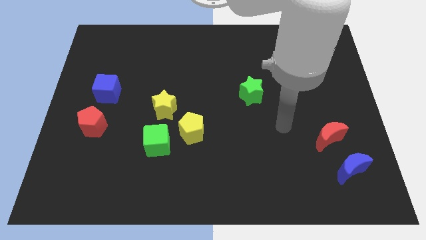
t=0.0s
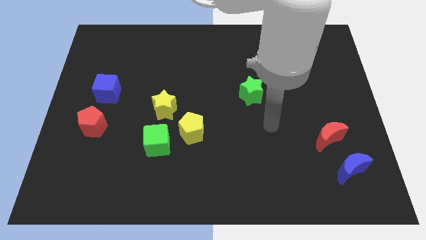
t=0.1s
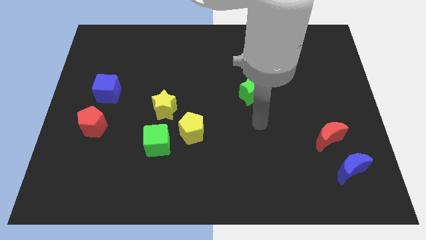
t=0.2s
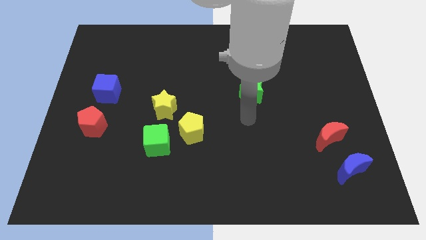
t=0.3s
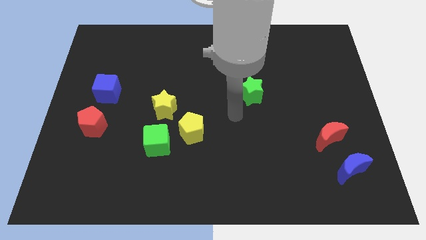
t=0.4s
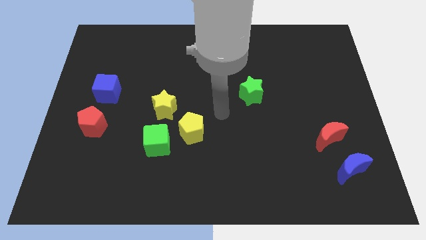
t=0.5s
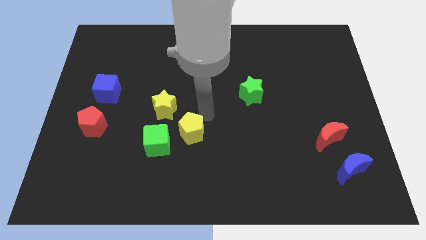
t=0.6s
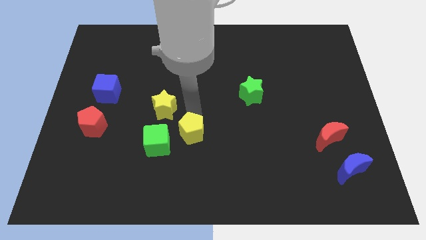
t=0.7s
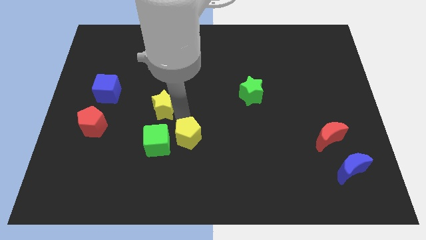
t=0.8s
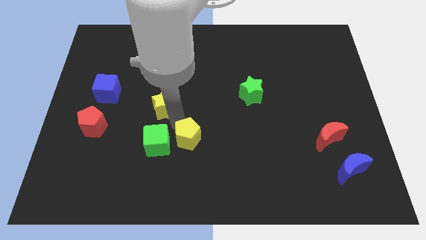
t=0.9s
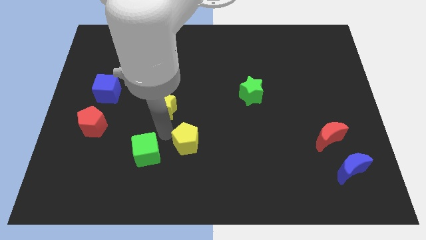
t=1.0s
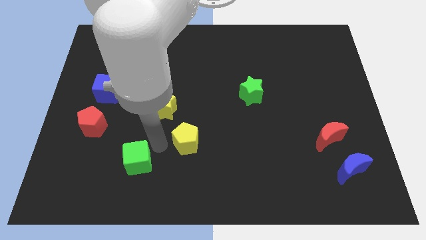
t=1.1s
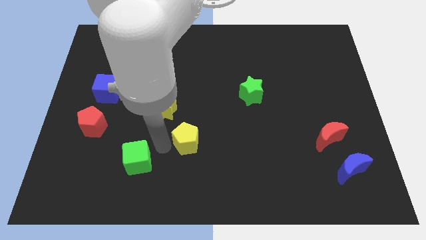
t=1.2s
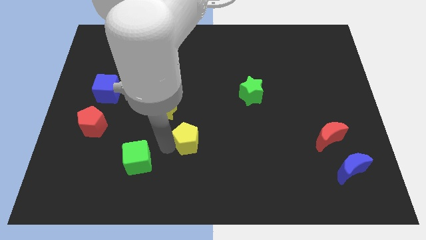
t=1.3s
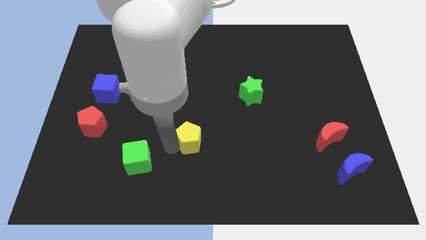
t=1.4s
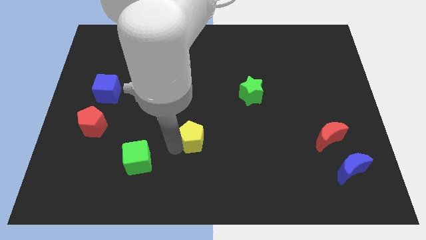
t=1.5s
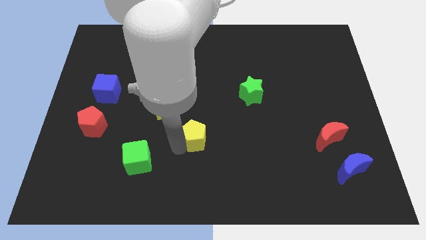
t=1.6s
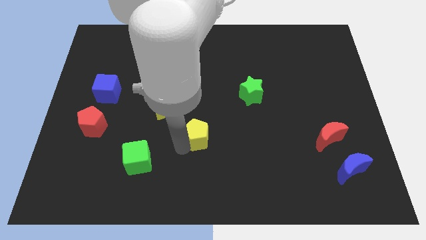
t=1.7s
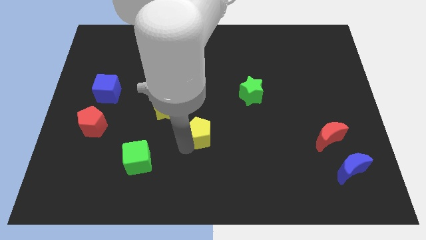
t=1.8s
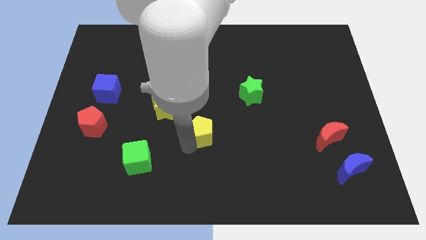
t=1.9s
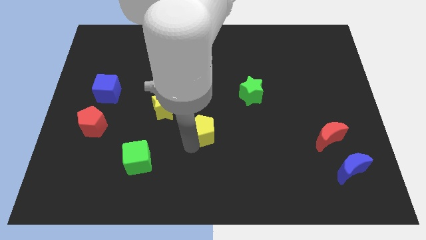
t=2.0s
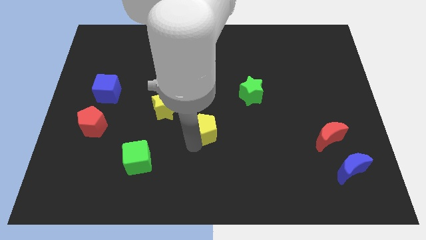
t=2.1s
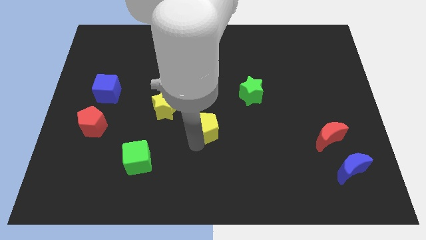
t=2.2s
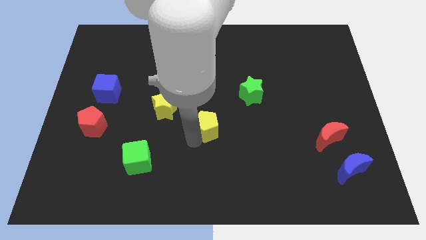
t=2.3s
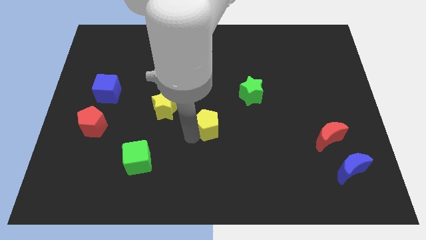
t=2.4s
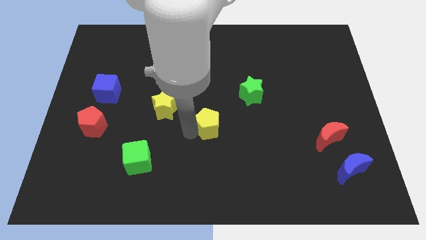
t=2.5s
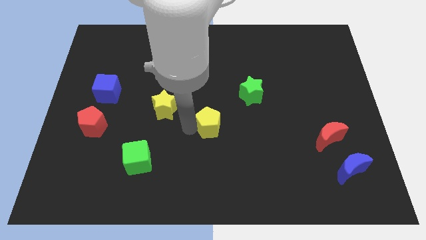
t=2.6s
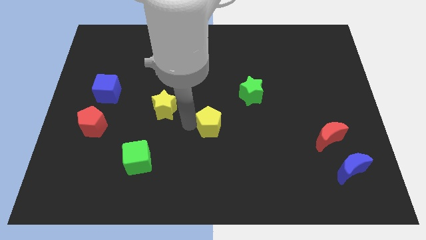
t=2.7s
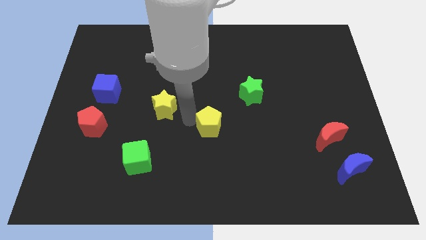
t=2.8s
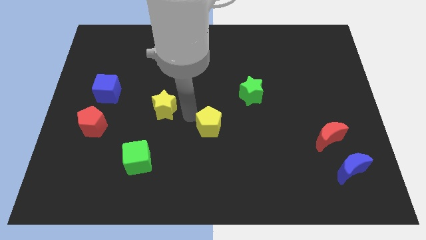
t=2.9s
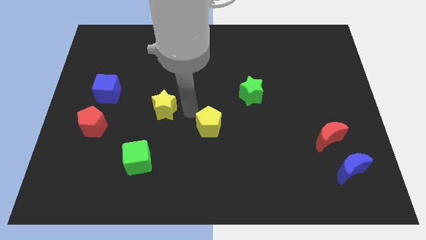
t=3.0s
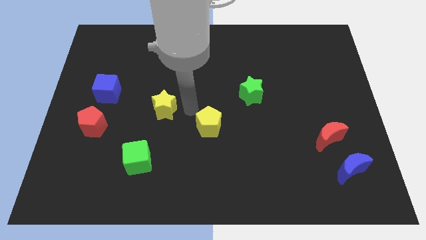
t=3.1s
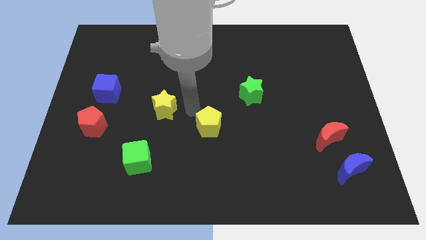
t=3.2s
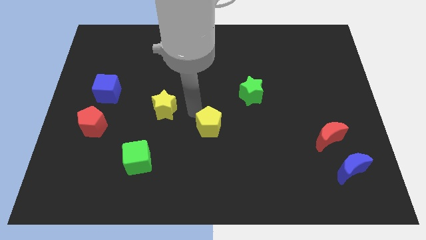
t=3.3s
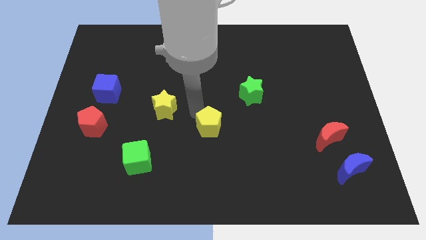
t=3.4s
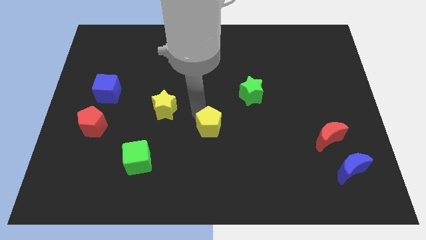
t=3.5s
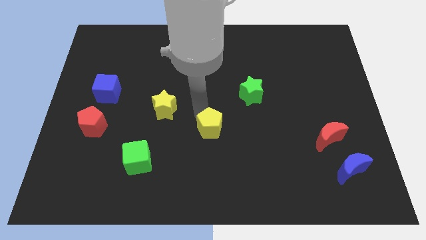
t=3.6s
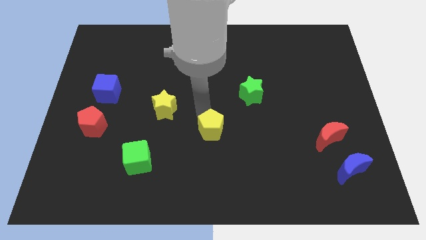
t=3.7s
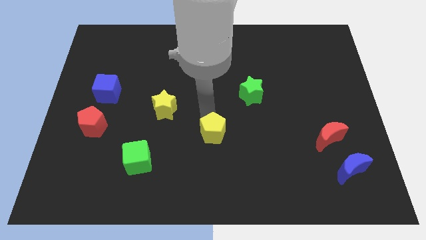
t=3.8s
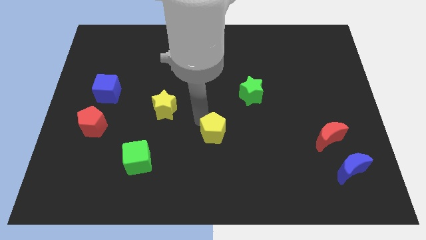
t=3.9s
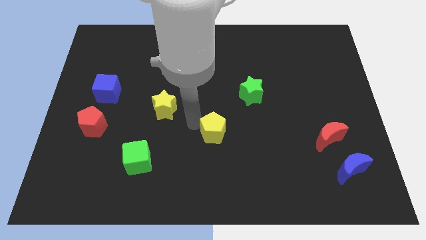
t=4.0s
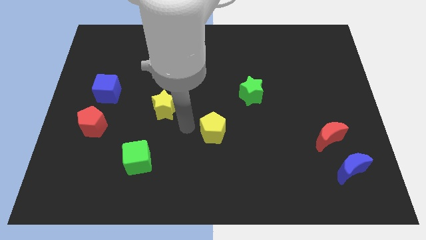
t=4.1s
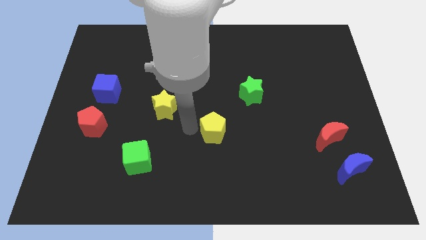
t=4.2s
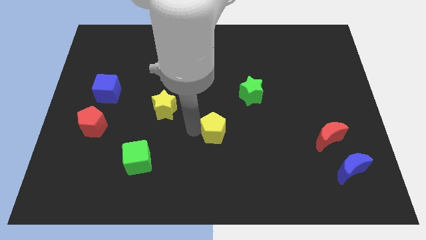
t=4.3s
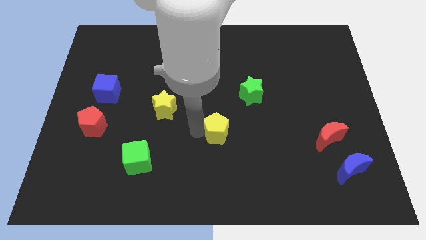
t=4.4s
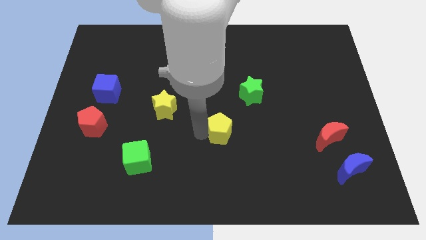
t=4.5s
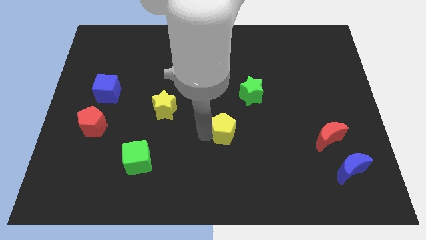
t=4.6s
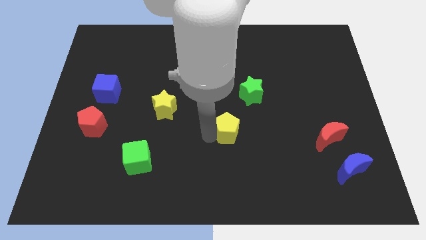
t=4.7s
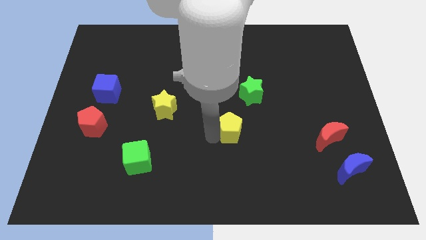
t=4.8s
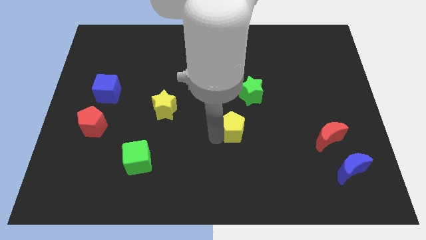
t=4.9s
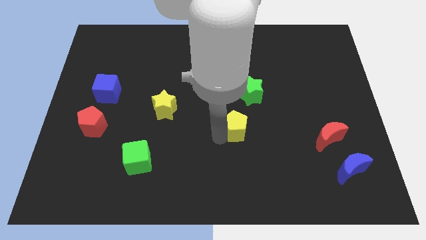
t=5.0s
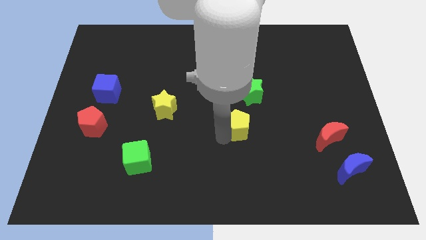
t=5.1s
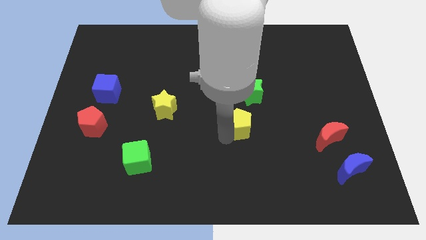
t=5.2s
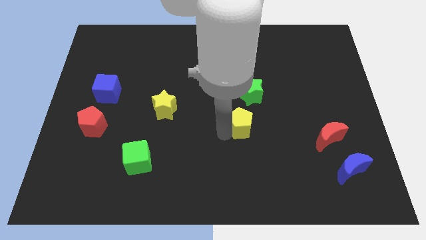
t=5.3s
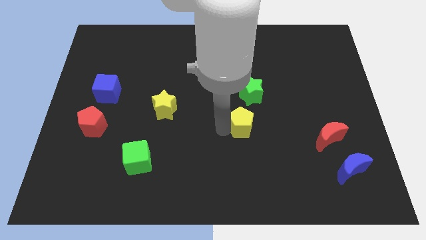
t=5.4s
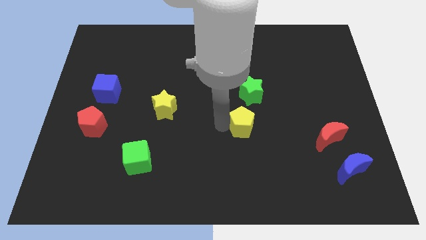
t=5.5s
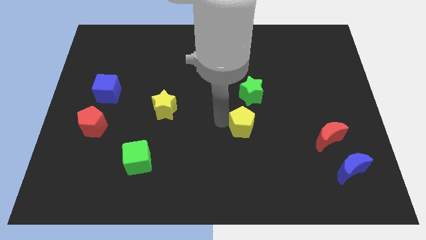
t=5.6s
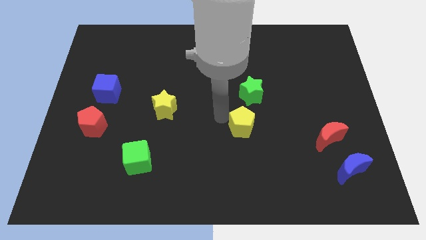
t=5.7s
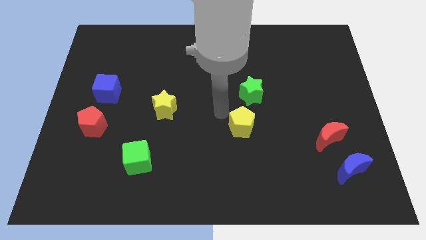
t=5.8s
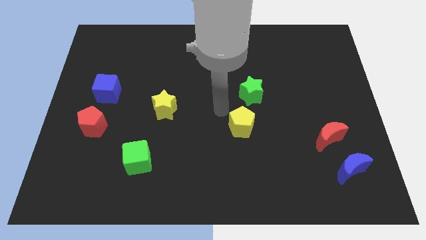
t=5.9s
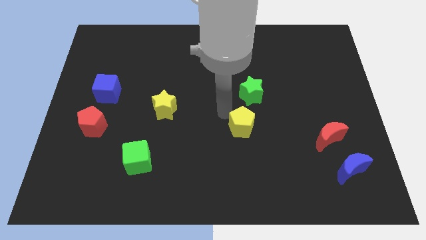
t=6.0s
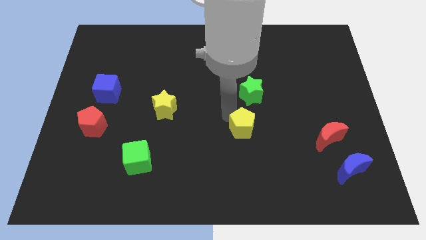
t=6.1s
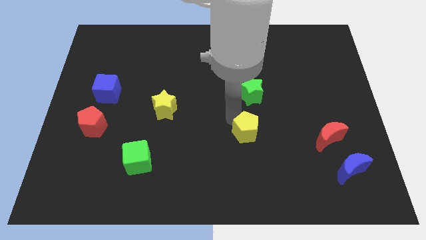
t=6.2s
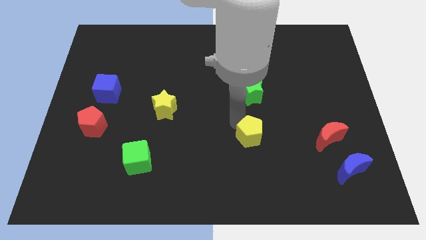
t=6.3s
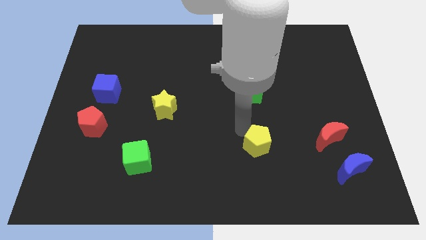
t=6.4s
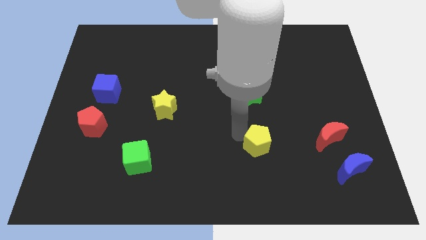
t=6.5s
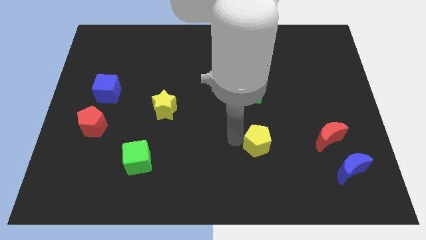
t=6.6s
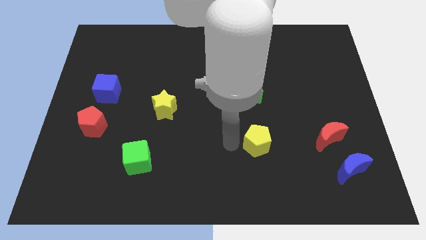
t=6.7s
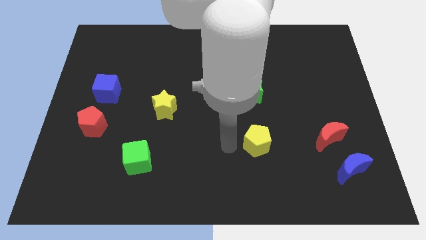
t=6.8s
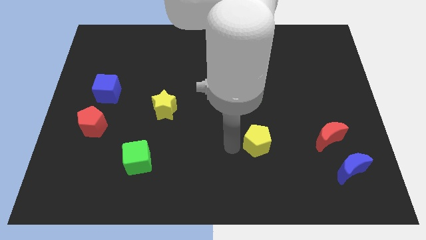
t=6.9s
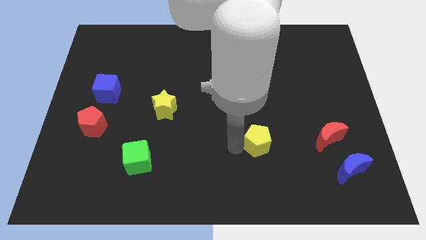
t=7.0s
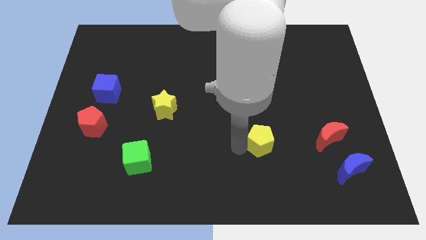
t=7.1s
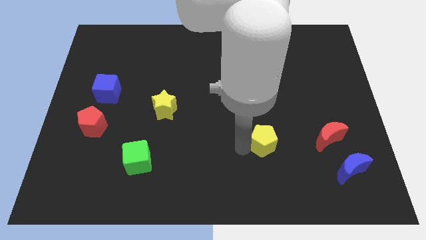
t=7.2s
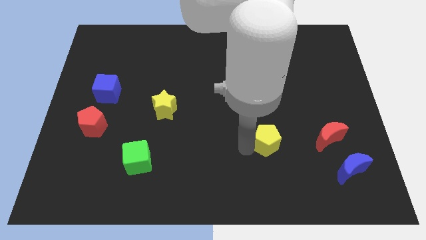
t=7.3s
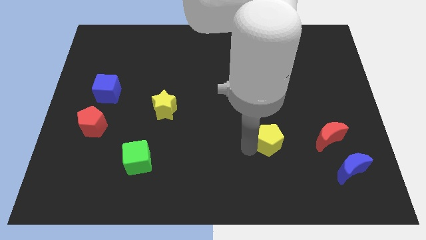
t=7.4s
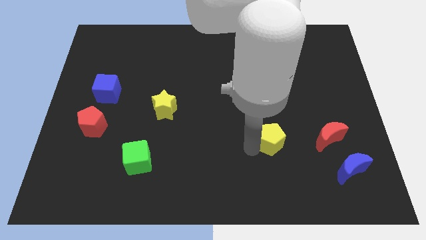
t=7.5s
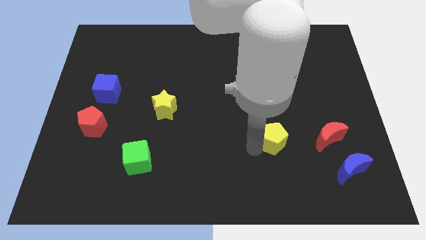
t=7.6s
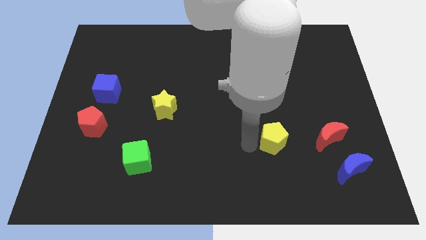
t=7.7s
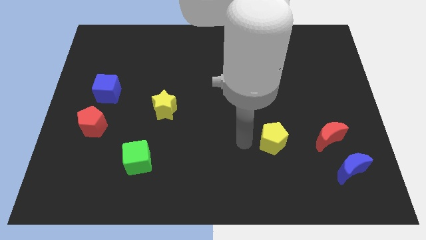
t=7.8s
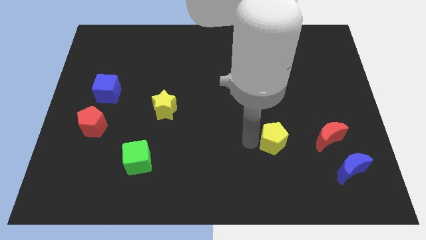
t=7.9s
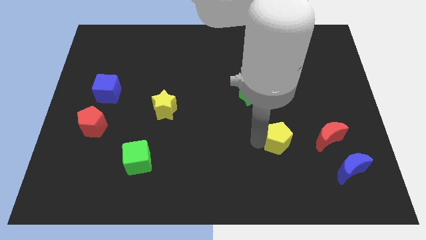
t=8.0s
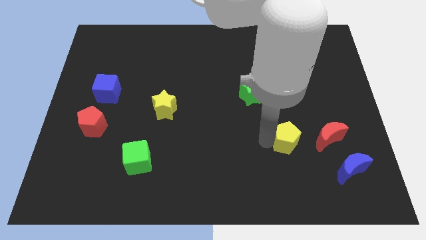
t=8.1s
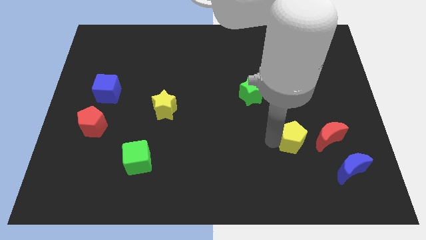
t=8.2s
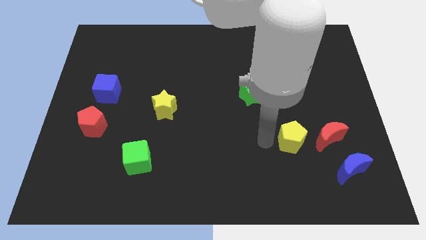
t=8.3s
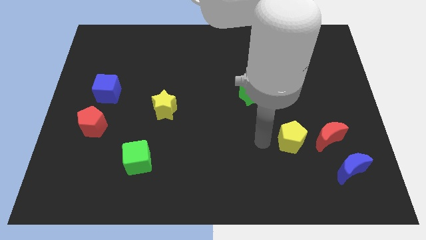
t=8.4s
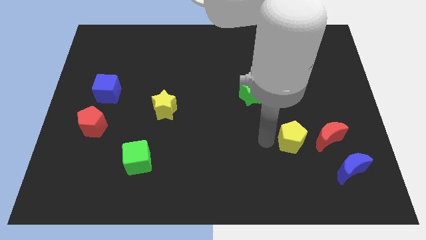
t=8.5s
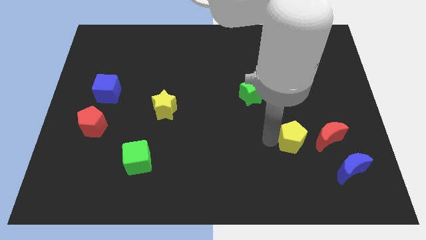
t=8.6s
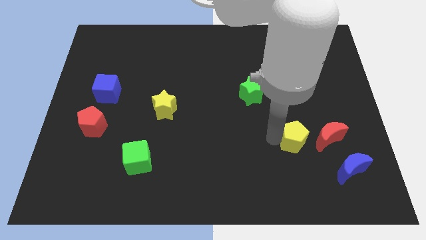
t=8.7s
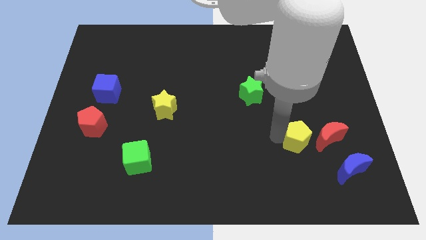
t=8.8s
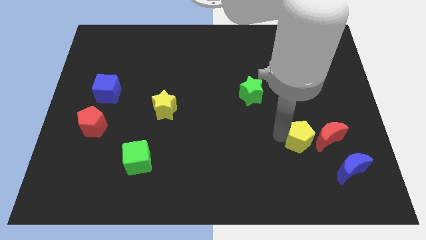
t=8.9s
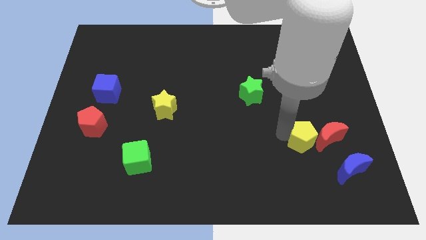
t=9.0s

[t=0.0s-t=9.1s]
move the yellow pentagon towards the red moon
